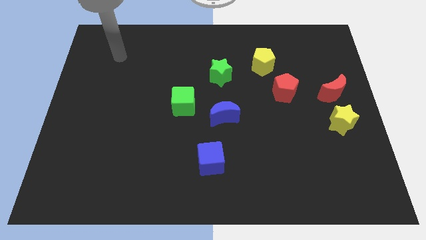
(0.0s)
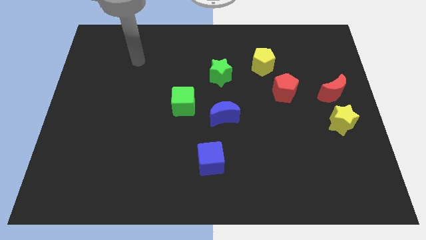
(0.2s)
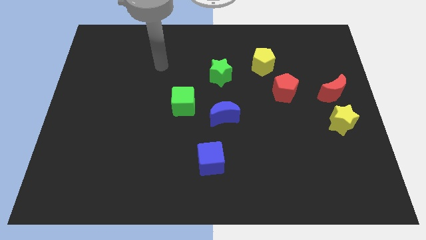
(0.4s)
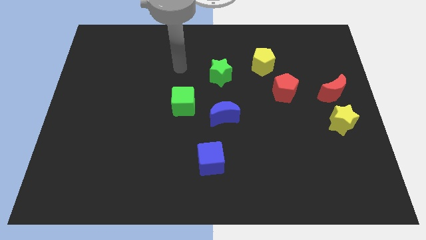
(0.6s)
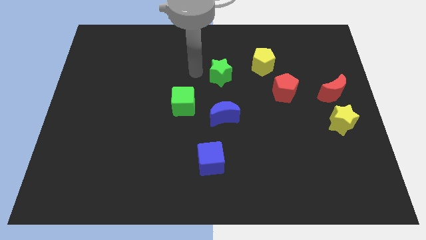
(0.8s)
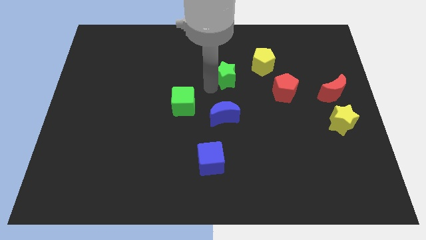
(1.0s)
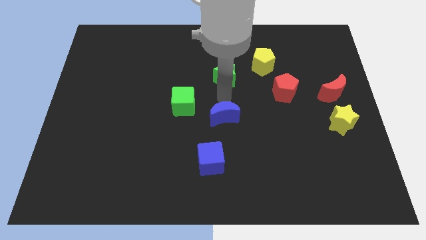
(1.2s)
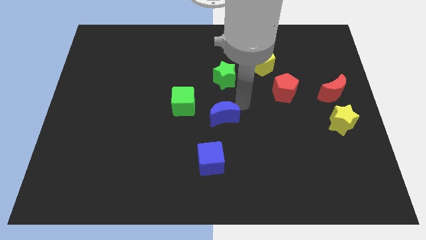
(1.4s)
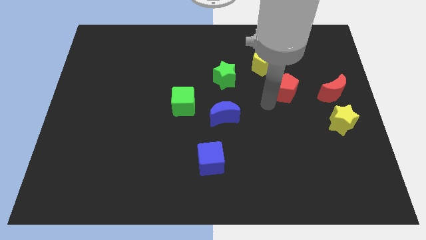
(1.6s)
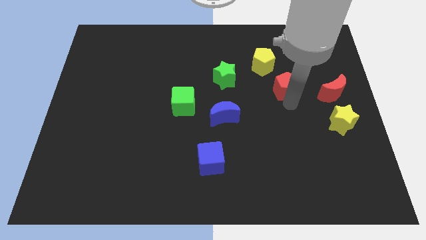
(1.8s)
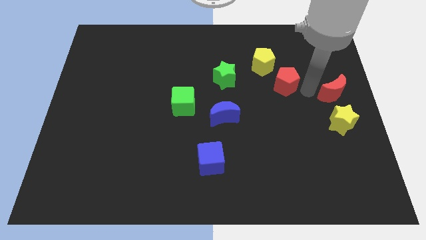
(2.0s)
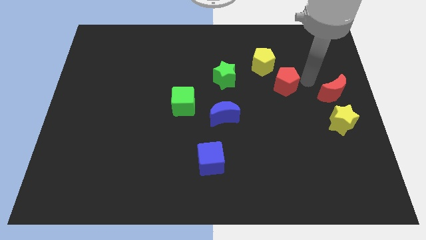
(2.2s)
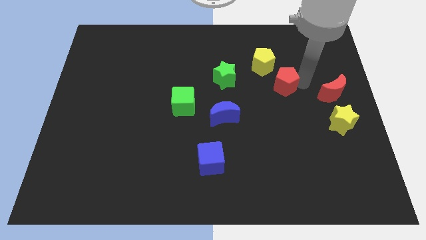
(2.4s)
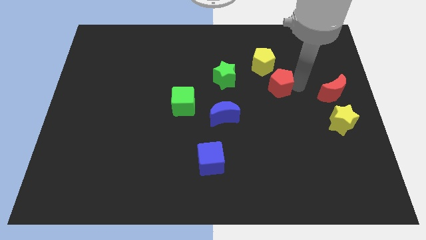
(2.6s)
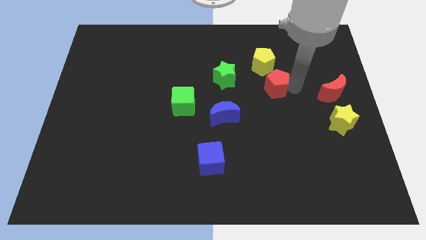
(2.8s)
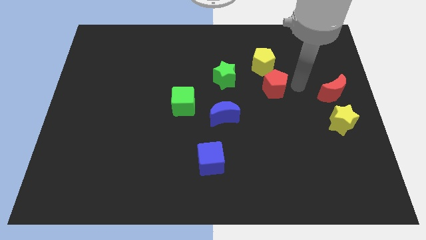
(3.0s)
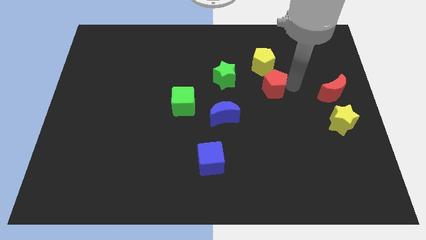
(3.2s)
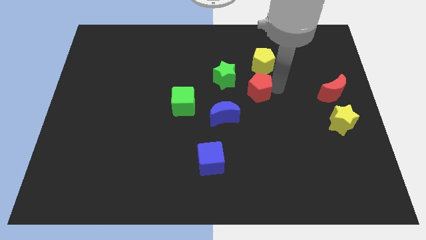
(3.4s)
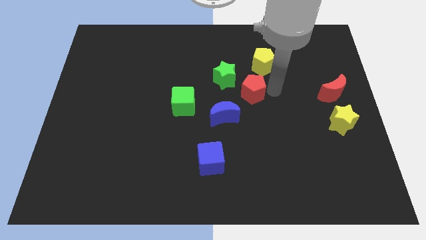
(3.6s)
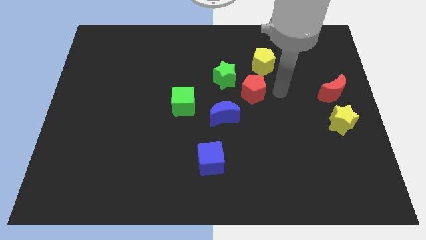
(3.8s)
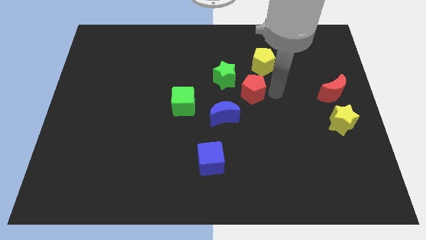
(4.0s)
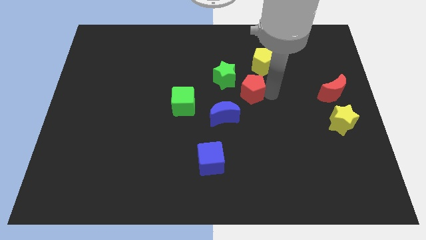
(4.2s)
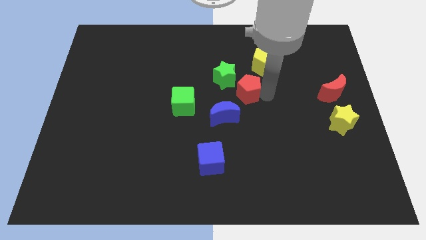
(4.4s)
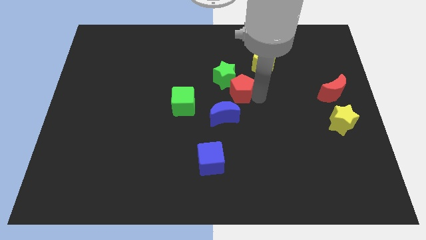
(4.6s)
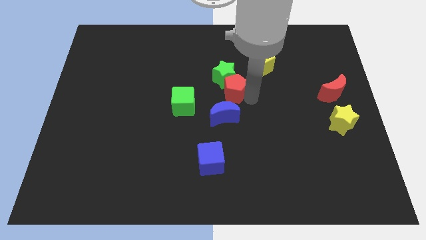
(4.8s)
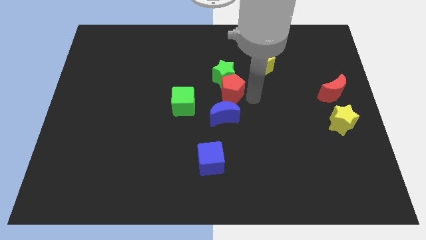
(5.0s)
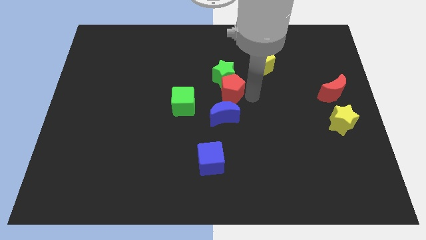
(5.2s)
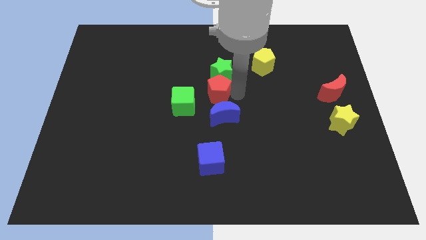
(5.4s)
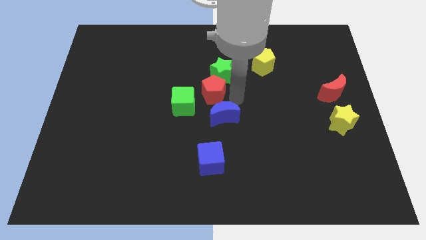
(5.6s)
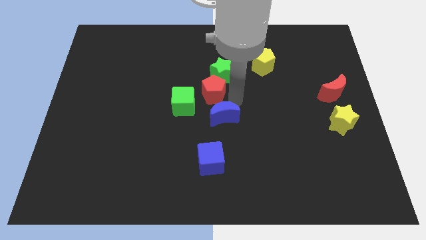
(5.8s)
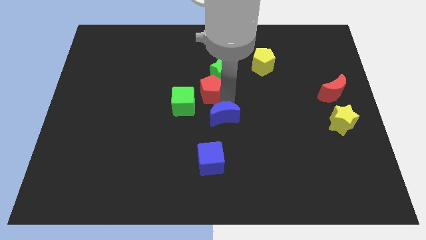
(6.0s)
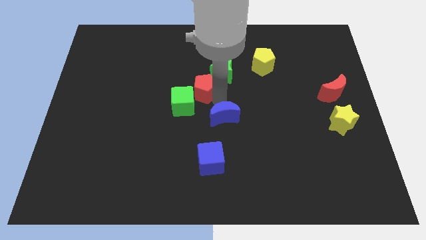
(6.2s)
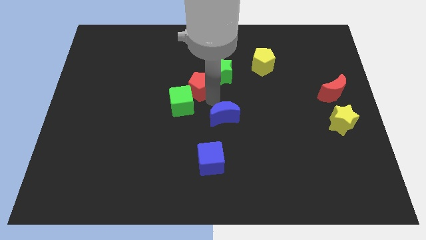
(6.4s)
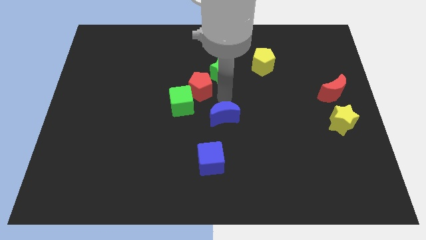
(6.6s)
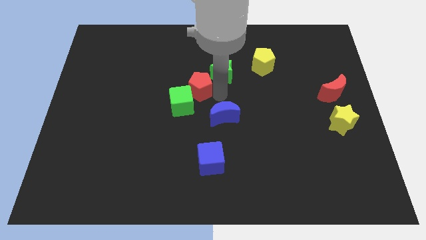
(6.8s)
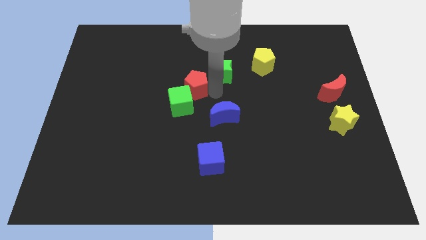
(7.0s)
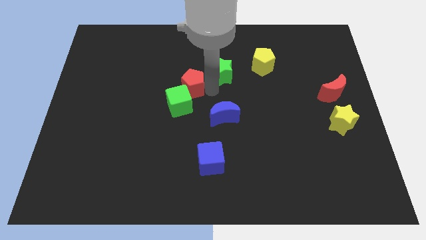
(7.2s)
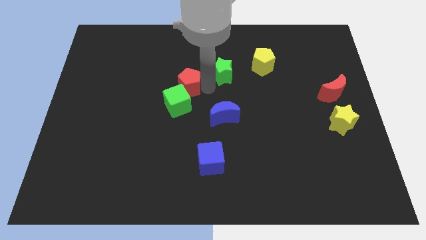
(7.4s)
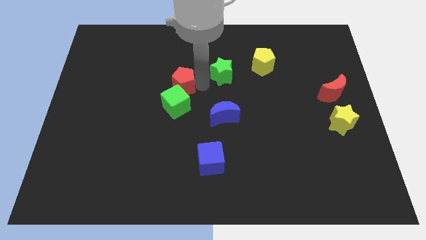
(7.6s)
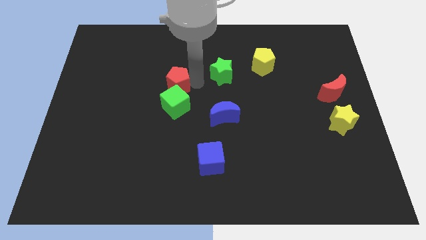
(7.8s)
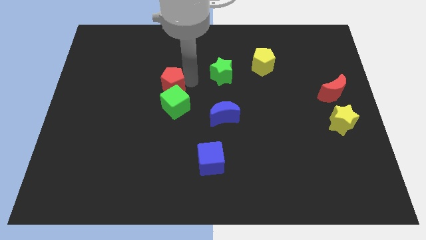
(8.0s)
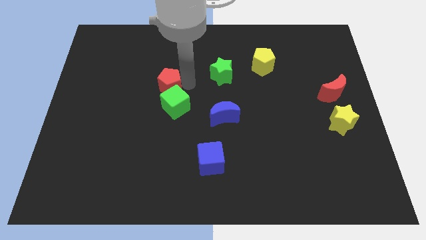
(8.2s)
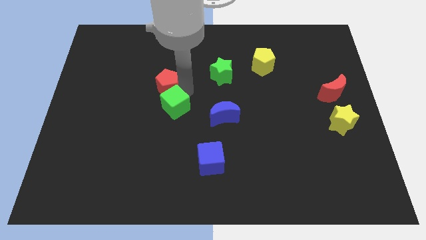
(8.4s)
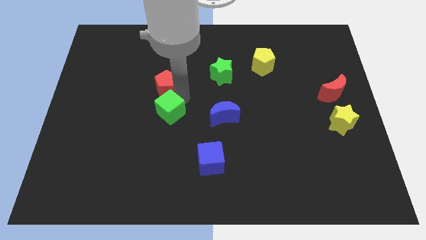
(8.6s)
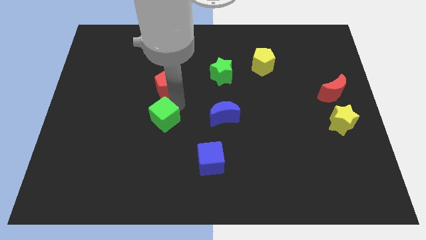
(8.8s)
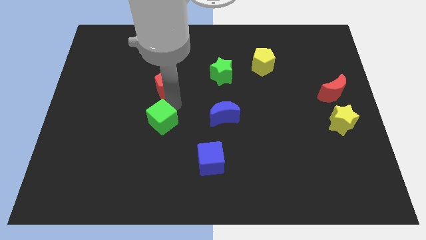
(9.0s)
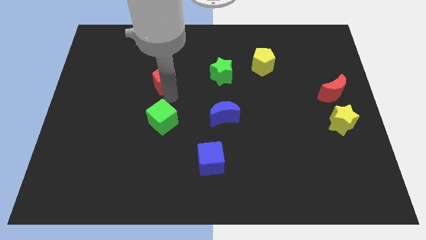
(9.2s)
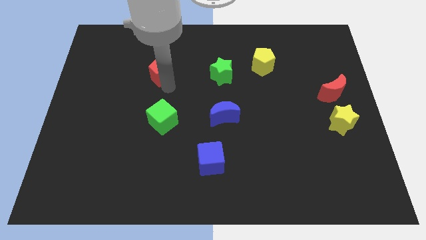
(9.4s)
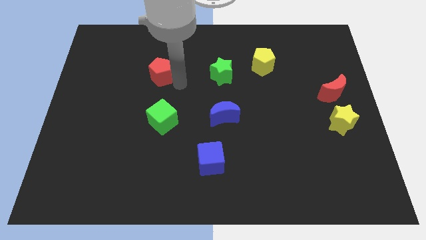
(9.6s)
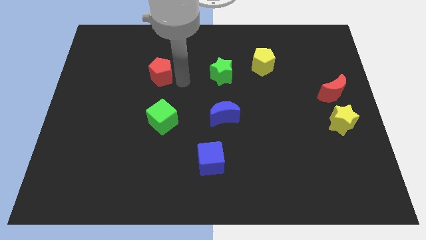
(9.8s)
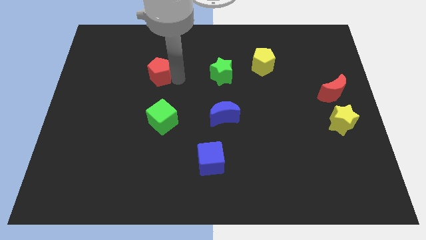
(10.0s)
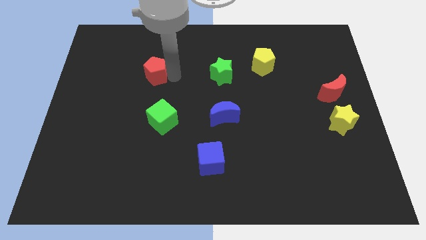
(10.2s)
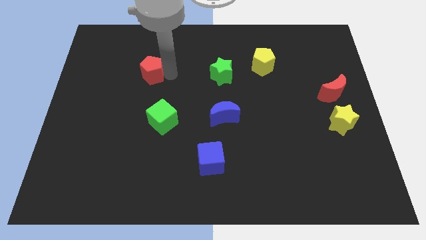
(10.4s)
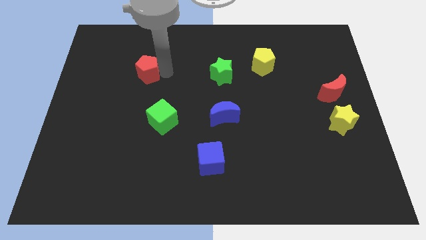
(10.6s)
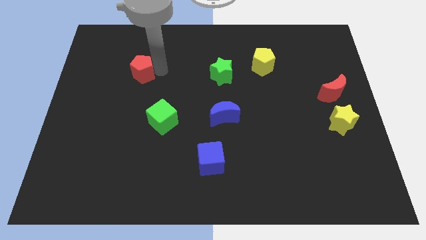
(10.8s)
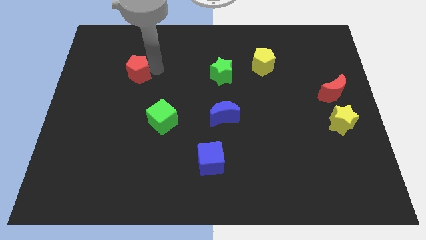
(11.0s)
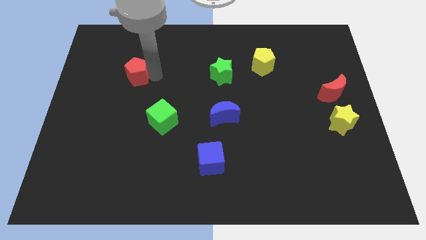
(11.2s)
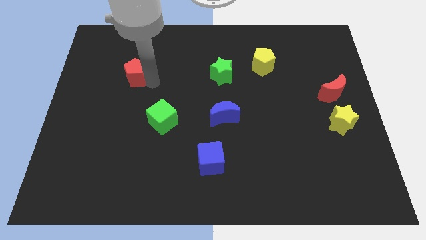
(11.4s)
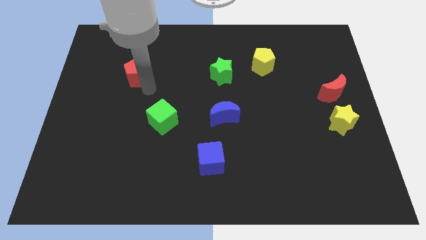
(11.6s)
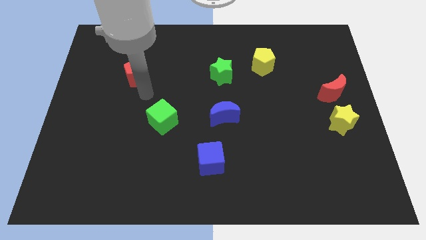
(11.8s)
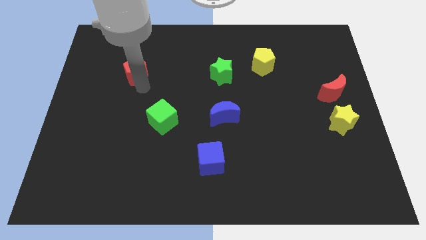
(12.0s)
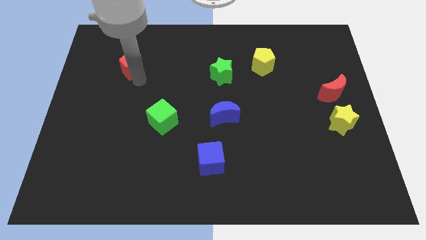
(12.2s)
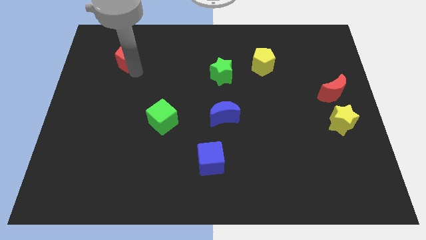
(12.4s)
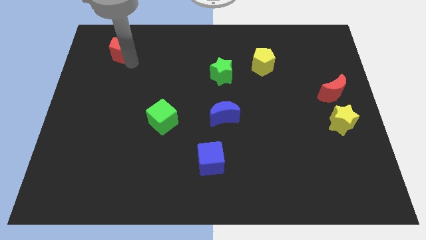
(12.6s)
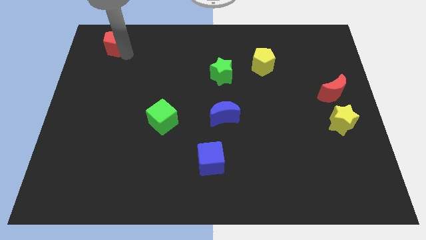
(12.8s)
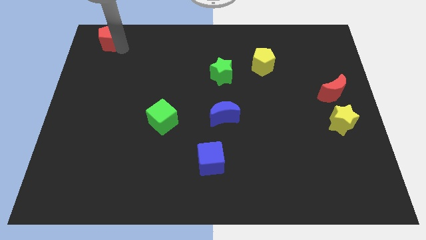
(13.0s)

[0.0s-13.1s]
move the red pentagon to the top left corner
